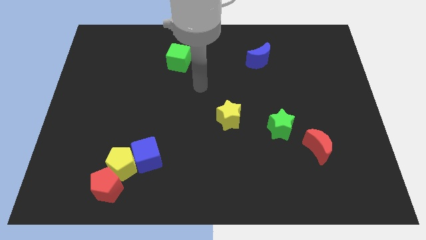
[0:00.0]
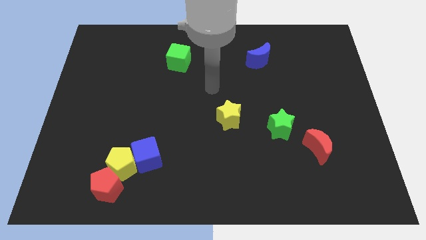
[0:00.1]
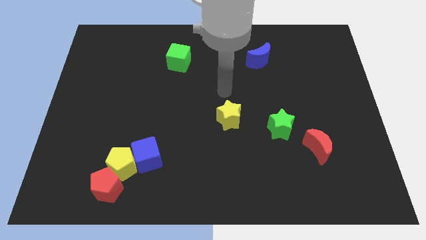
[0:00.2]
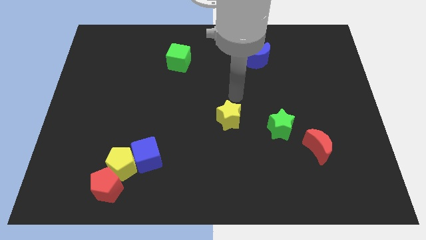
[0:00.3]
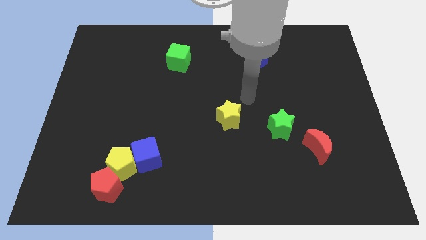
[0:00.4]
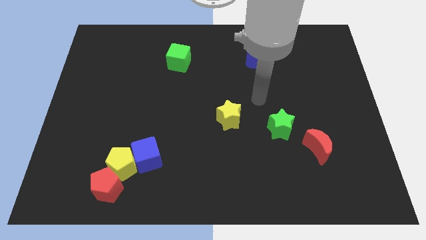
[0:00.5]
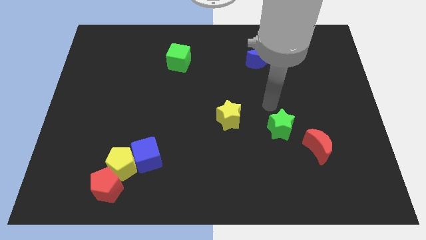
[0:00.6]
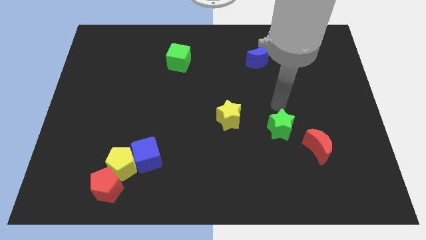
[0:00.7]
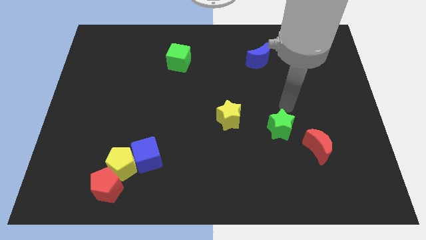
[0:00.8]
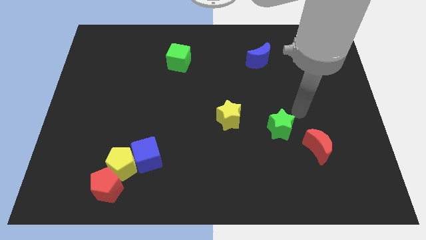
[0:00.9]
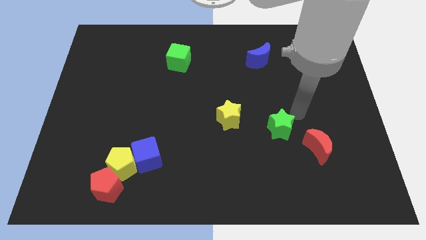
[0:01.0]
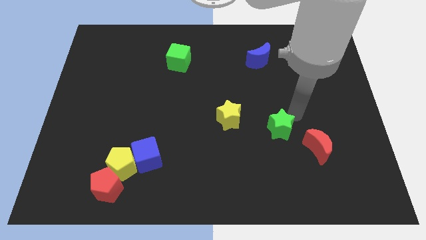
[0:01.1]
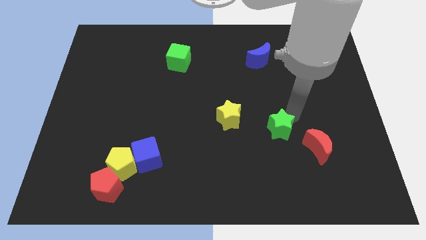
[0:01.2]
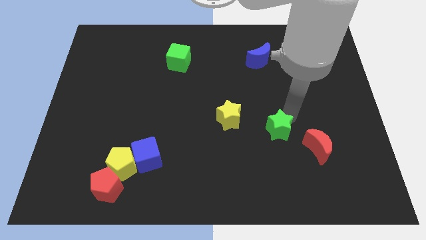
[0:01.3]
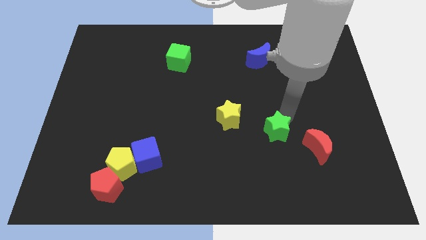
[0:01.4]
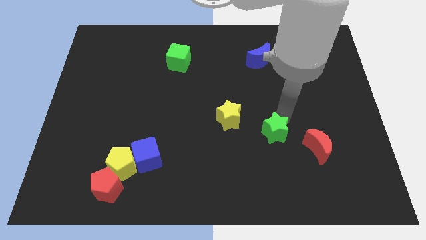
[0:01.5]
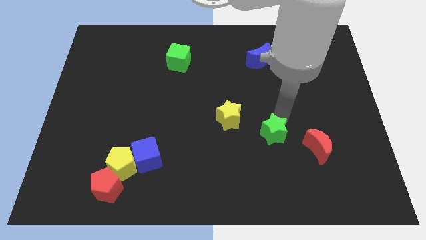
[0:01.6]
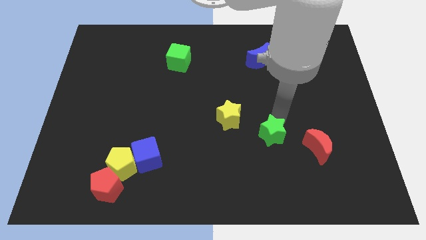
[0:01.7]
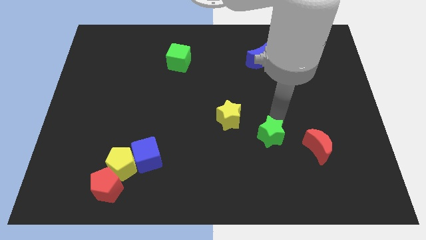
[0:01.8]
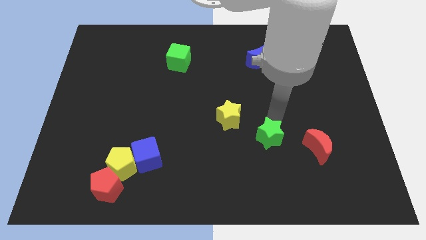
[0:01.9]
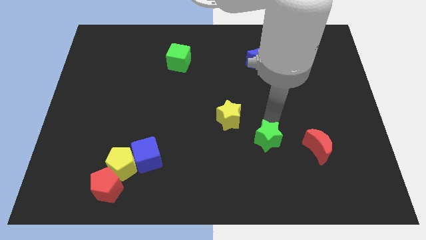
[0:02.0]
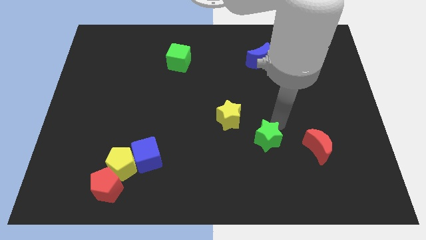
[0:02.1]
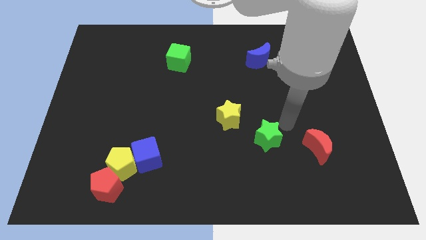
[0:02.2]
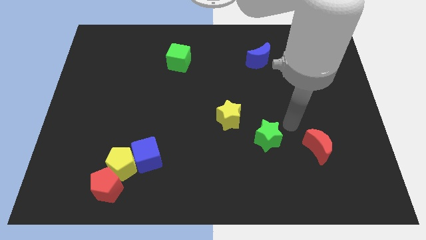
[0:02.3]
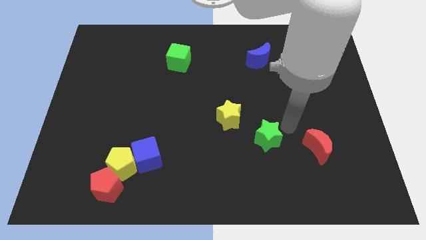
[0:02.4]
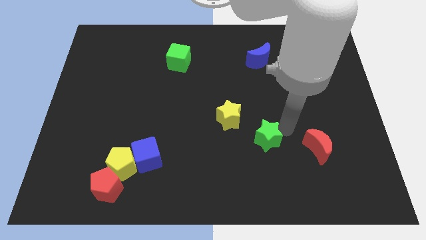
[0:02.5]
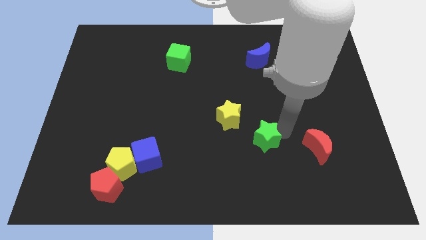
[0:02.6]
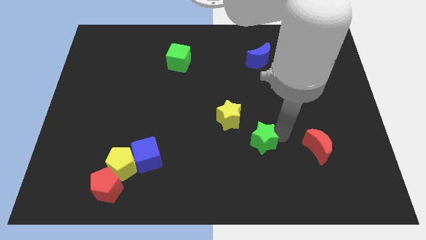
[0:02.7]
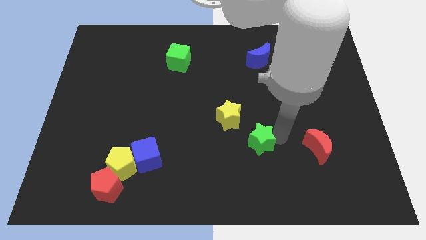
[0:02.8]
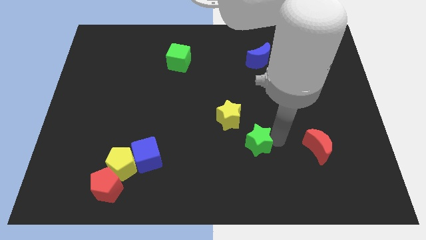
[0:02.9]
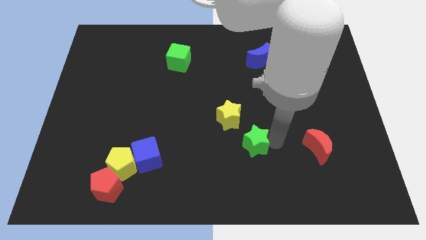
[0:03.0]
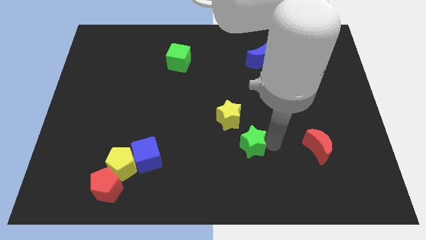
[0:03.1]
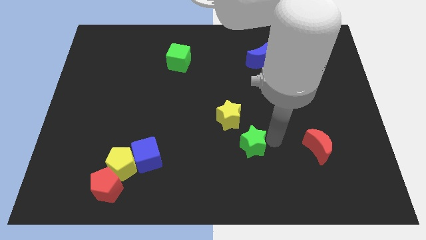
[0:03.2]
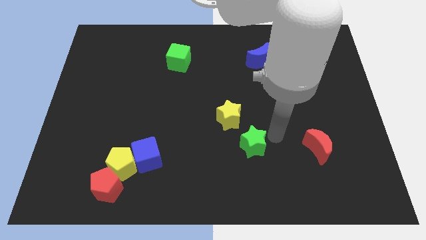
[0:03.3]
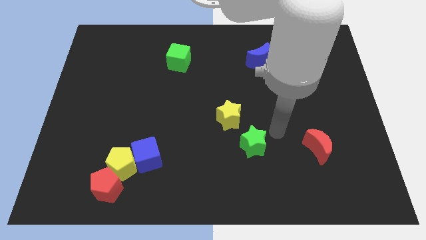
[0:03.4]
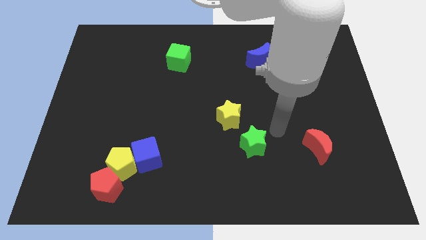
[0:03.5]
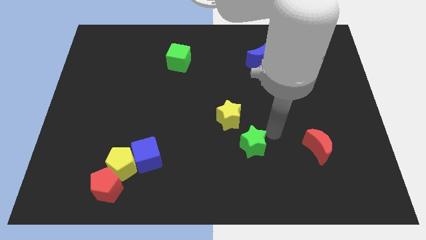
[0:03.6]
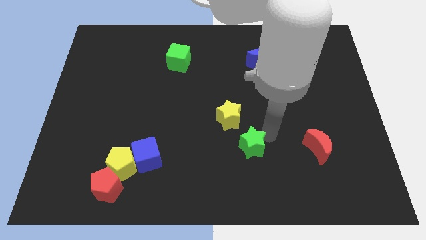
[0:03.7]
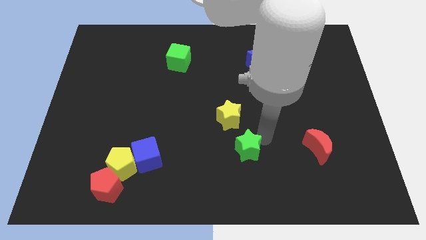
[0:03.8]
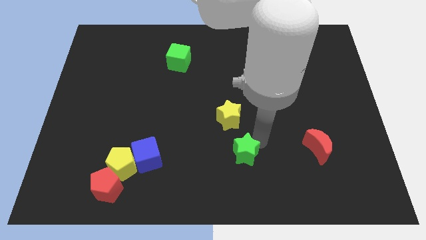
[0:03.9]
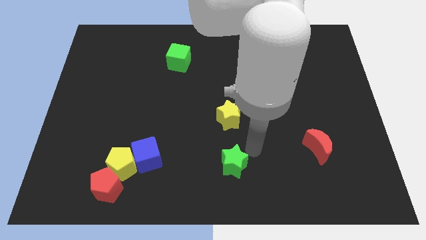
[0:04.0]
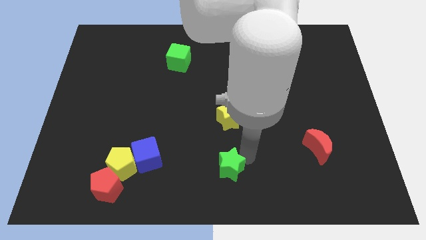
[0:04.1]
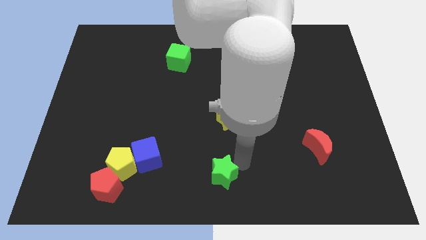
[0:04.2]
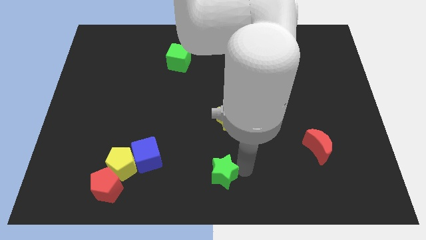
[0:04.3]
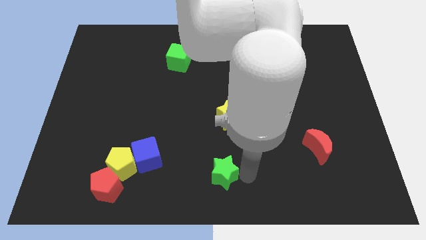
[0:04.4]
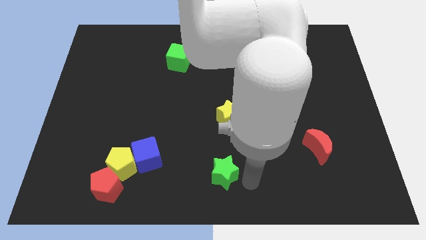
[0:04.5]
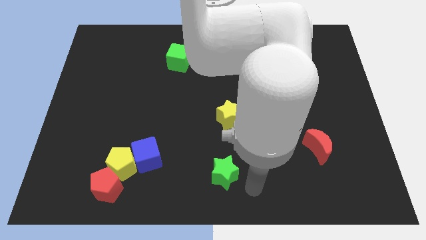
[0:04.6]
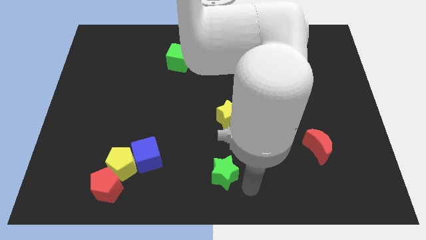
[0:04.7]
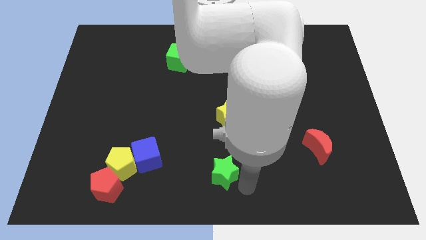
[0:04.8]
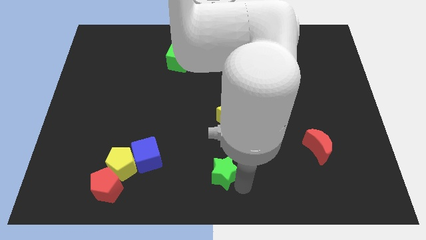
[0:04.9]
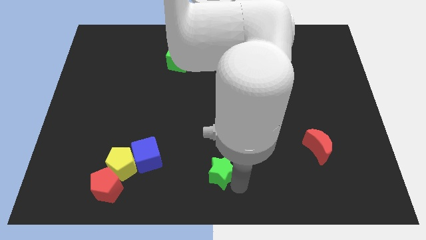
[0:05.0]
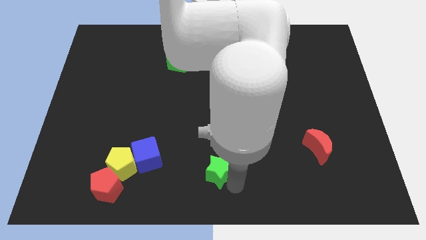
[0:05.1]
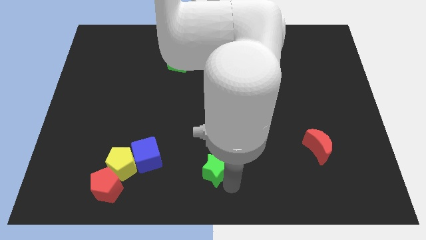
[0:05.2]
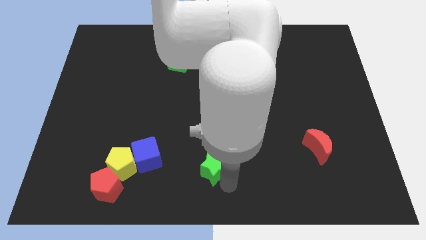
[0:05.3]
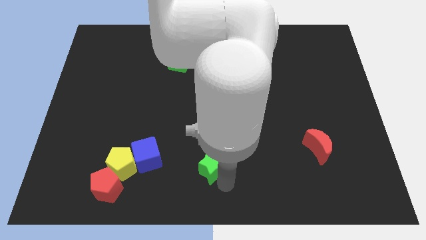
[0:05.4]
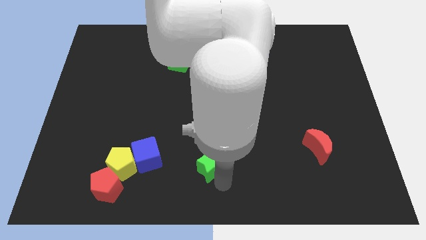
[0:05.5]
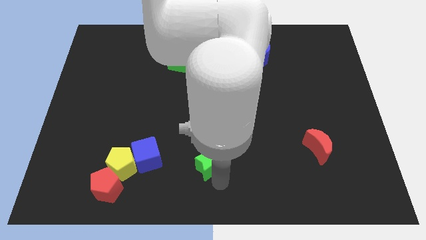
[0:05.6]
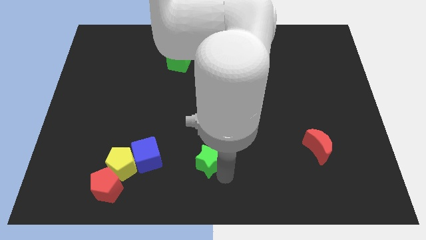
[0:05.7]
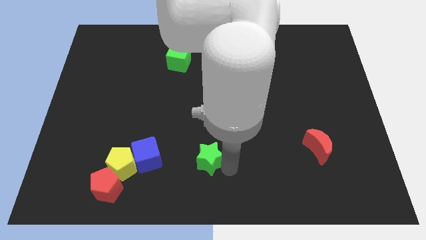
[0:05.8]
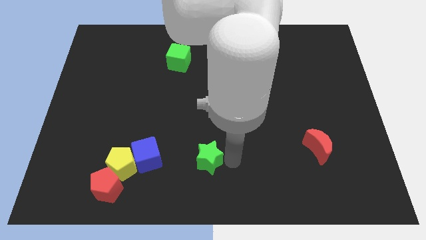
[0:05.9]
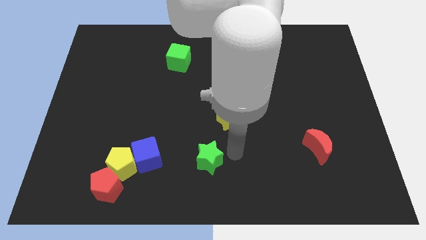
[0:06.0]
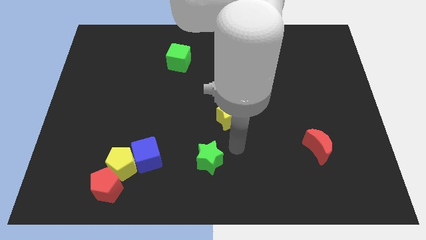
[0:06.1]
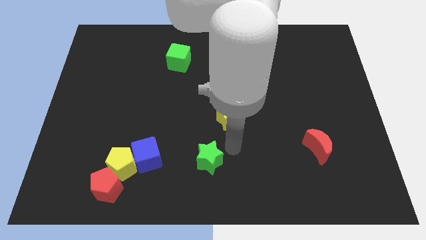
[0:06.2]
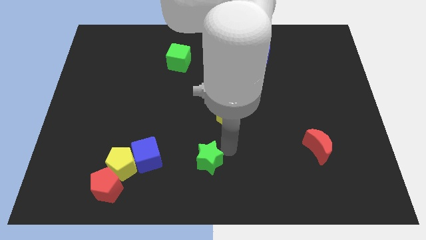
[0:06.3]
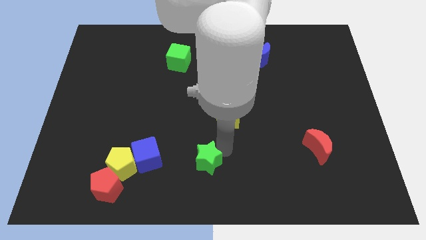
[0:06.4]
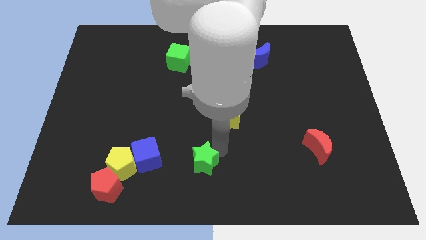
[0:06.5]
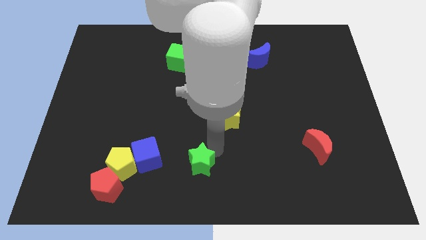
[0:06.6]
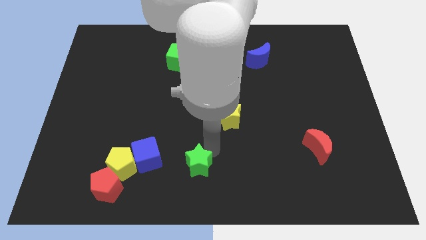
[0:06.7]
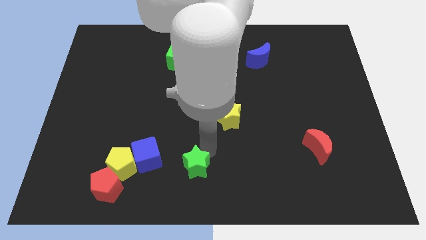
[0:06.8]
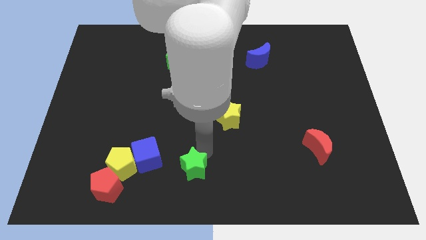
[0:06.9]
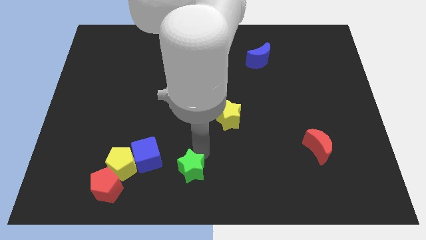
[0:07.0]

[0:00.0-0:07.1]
put the green star to the bottom right side of the blue cube
